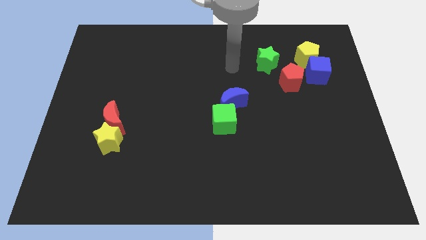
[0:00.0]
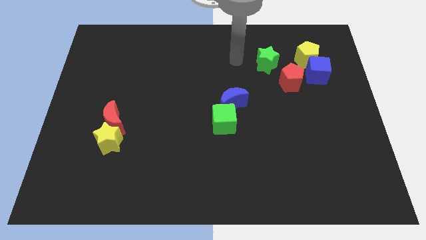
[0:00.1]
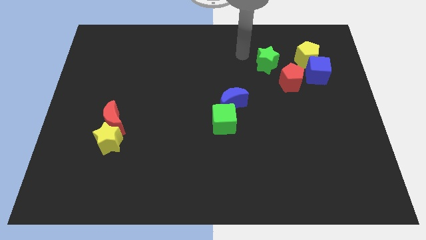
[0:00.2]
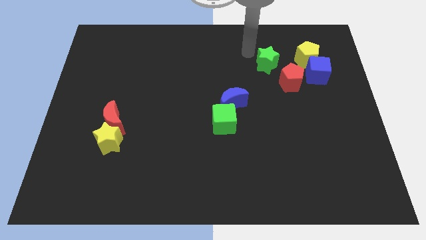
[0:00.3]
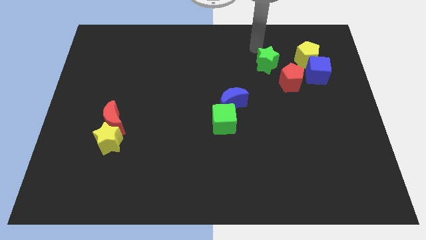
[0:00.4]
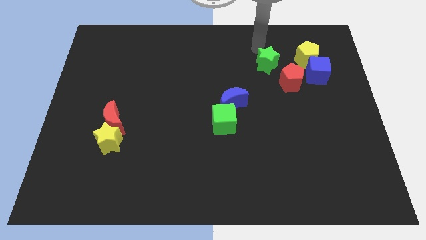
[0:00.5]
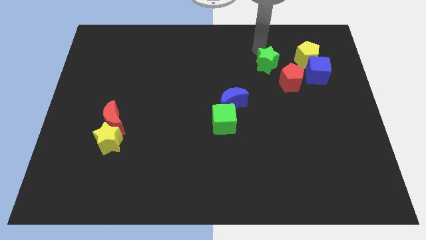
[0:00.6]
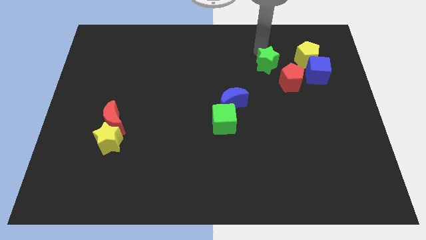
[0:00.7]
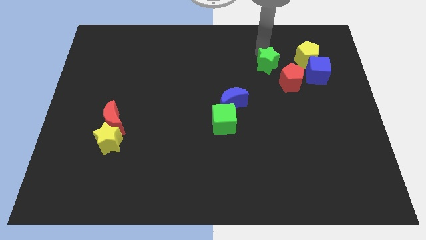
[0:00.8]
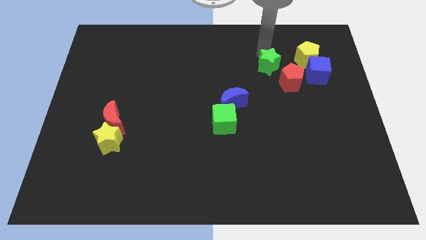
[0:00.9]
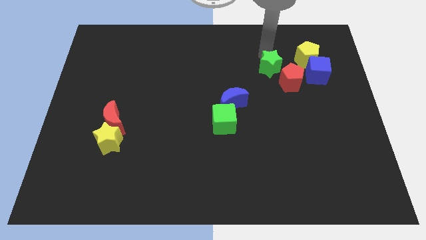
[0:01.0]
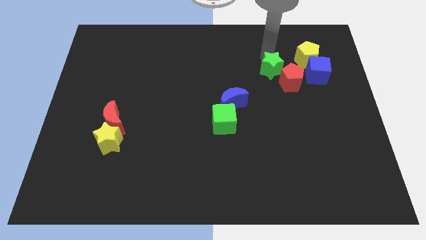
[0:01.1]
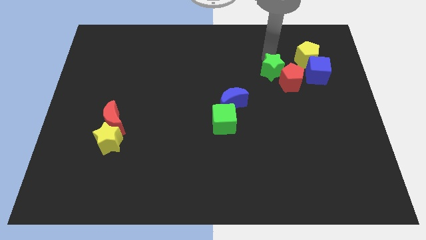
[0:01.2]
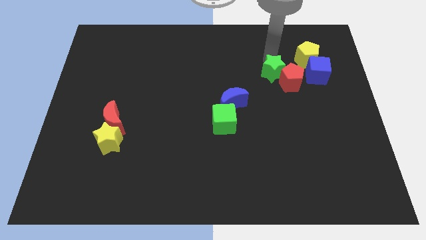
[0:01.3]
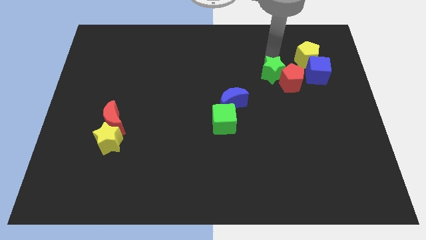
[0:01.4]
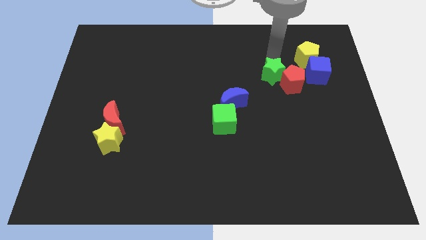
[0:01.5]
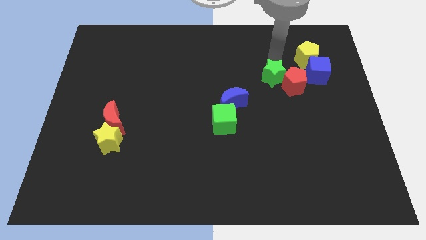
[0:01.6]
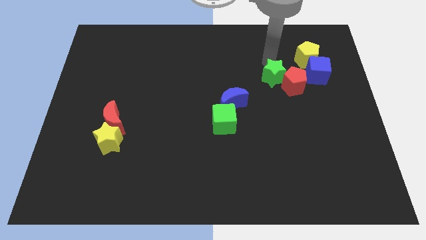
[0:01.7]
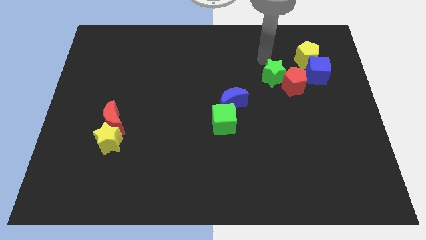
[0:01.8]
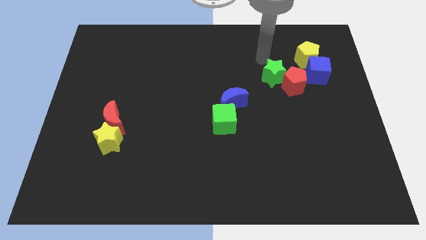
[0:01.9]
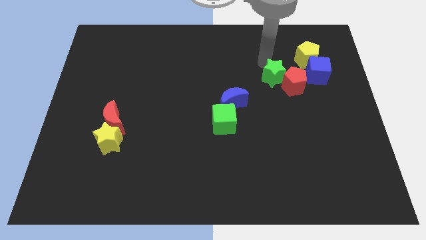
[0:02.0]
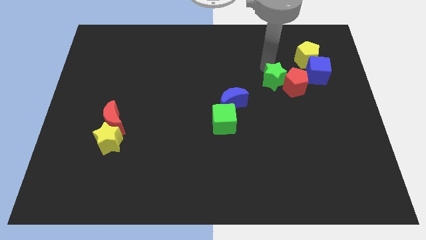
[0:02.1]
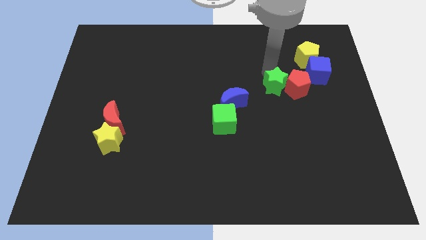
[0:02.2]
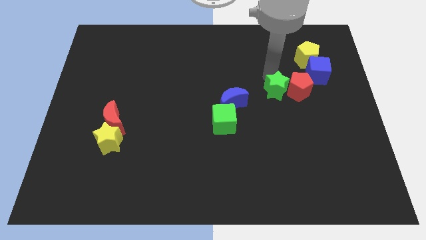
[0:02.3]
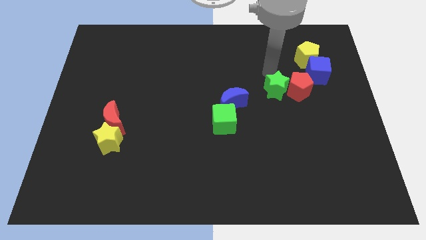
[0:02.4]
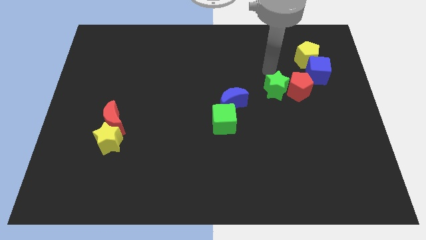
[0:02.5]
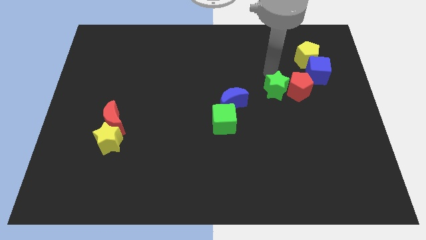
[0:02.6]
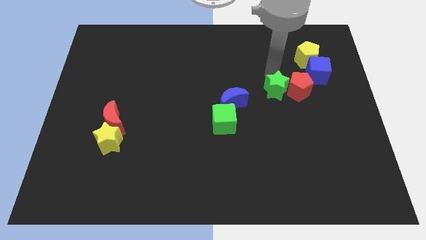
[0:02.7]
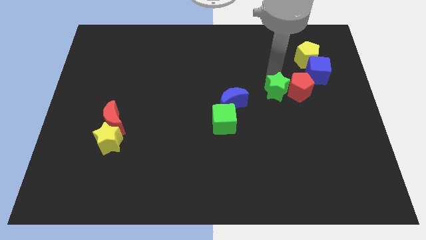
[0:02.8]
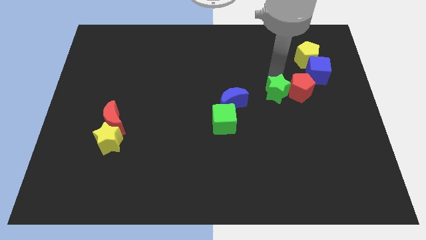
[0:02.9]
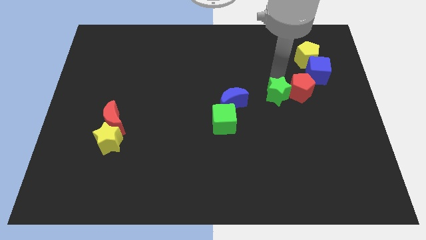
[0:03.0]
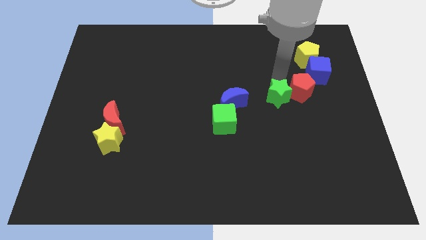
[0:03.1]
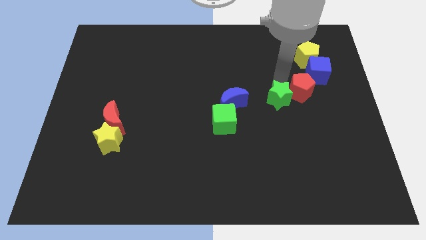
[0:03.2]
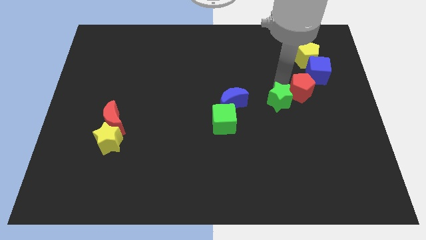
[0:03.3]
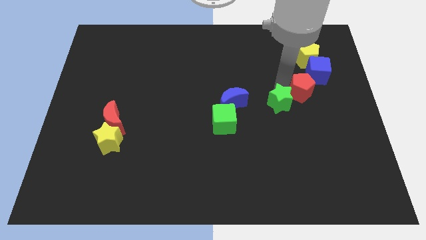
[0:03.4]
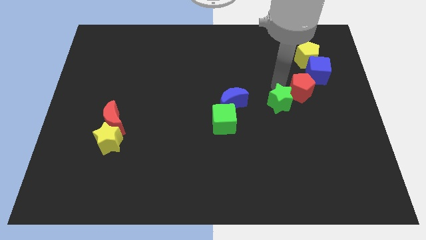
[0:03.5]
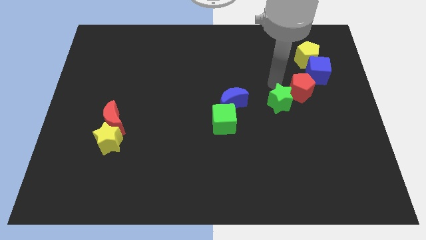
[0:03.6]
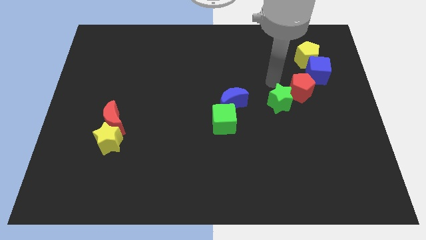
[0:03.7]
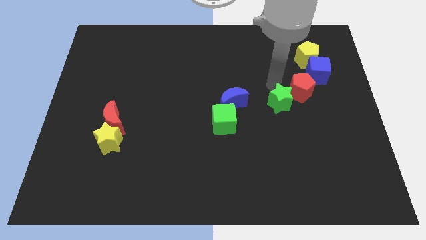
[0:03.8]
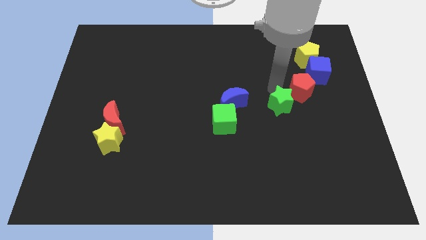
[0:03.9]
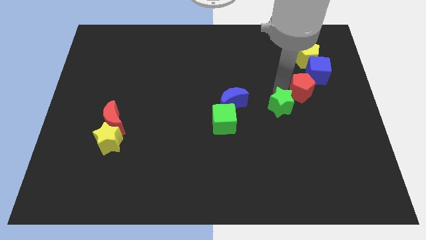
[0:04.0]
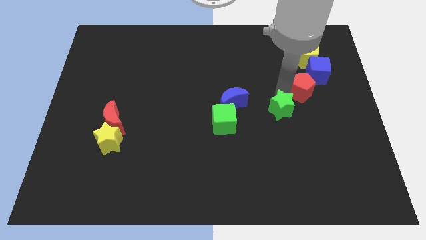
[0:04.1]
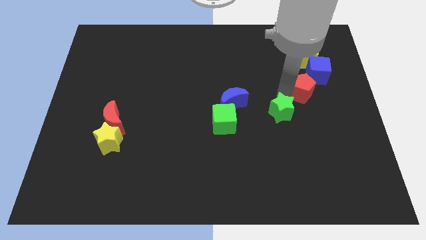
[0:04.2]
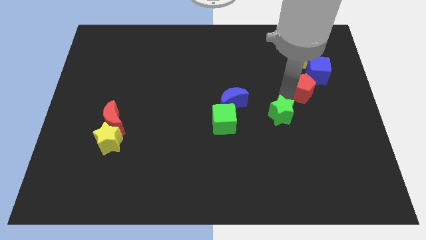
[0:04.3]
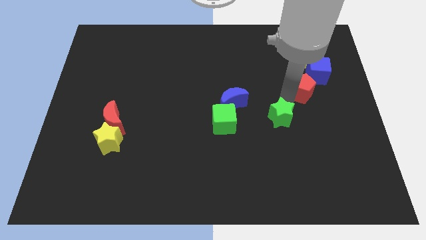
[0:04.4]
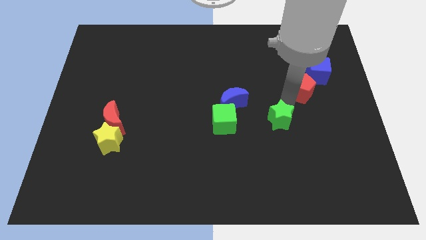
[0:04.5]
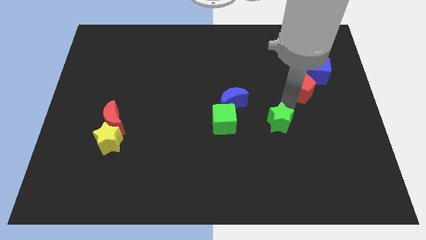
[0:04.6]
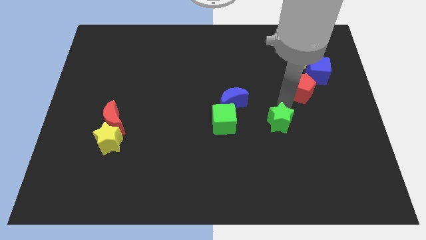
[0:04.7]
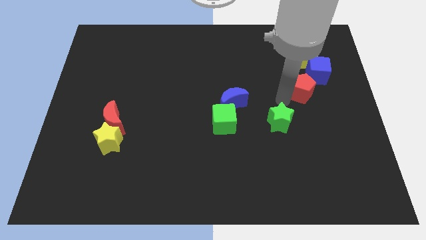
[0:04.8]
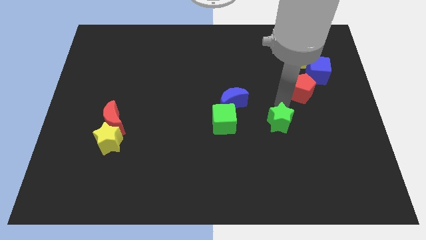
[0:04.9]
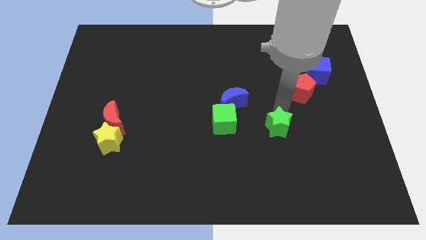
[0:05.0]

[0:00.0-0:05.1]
push the green star downwards

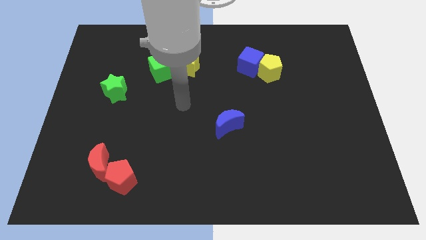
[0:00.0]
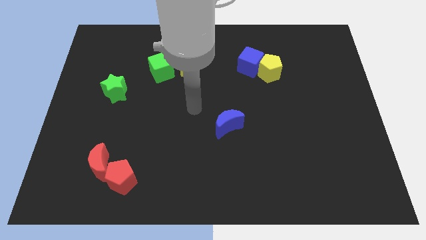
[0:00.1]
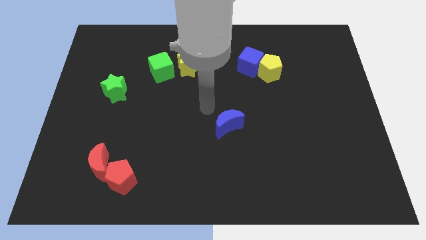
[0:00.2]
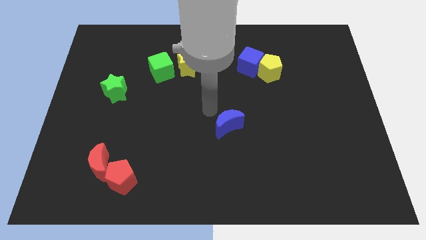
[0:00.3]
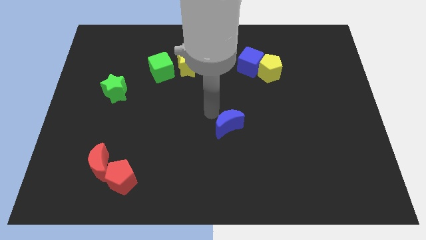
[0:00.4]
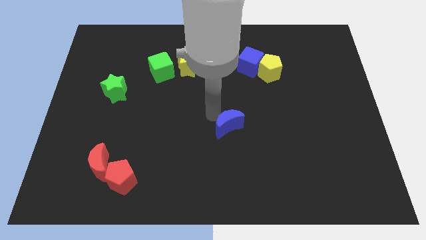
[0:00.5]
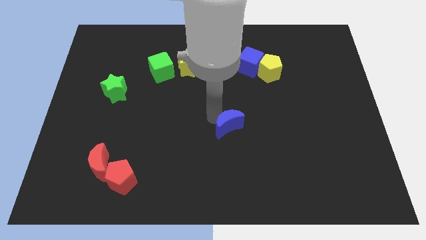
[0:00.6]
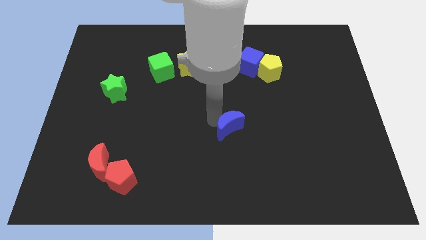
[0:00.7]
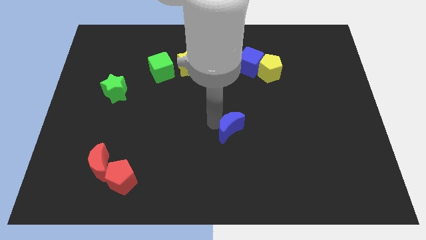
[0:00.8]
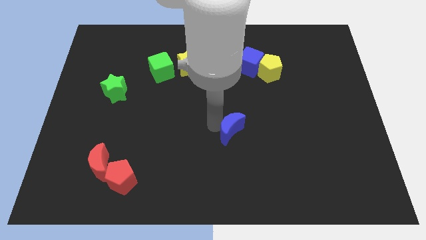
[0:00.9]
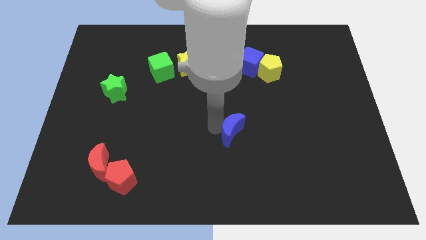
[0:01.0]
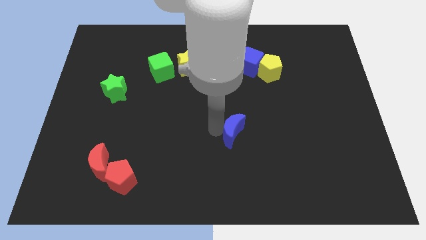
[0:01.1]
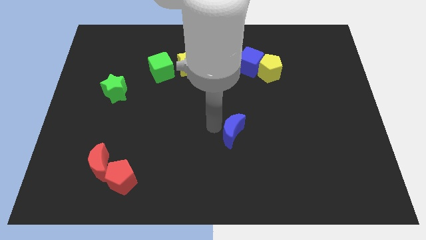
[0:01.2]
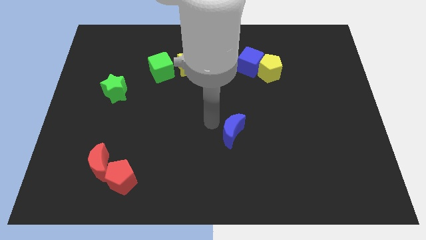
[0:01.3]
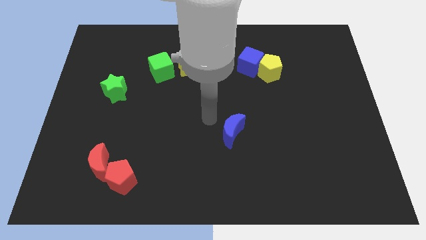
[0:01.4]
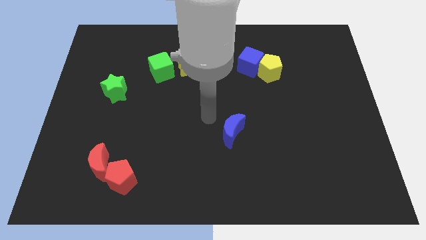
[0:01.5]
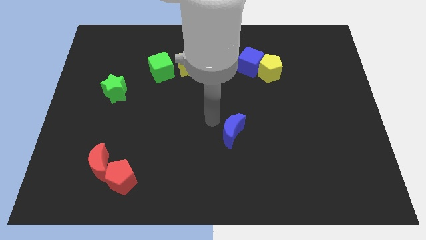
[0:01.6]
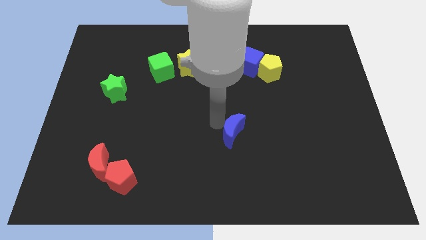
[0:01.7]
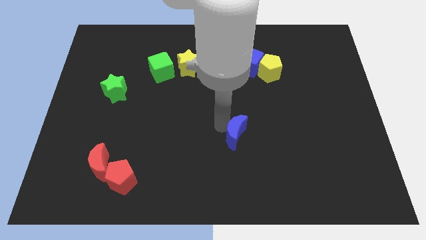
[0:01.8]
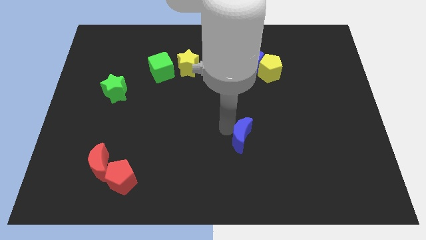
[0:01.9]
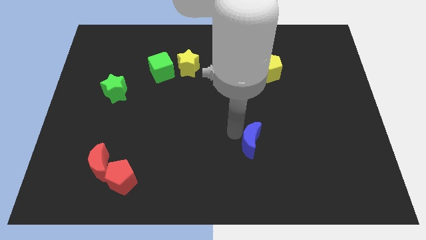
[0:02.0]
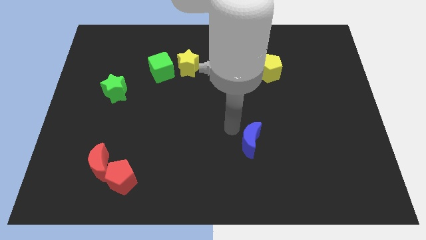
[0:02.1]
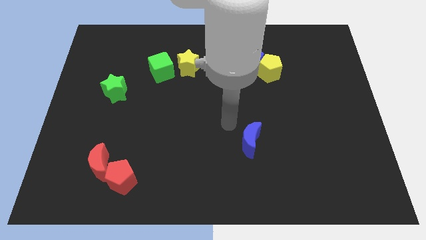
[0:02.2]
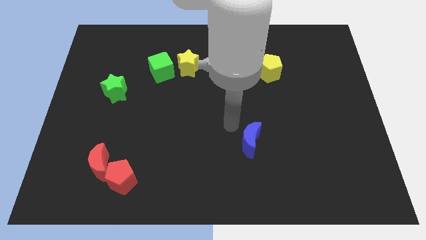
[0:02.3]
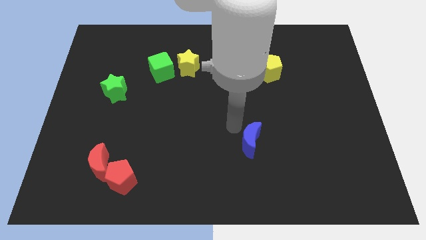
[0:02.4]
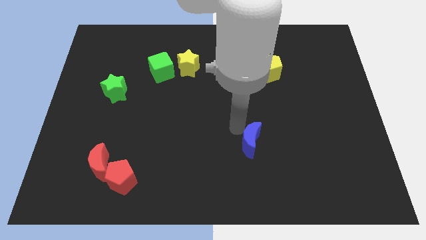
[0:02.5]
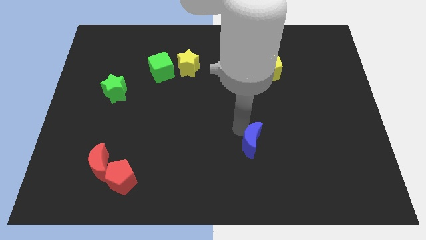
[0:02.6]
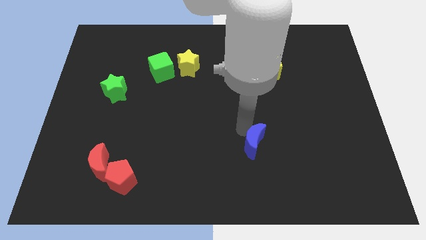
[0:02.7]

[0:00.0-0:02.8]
move the blue moon somewhat downwards and right

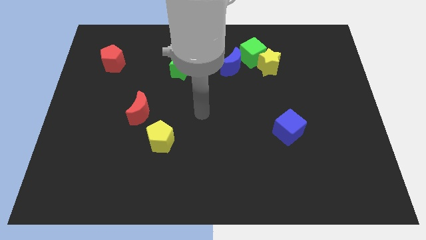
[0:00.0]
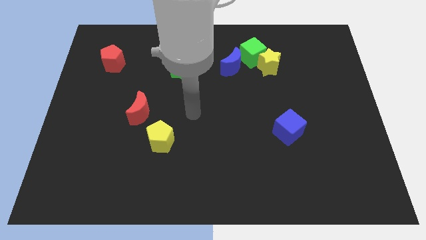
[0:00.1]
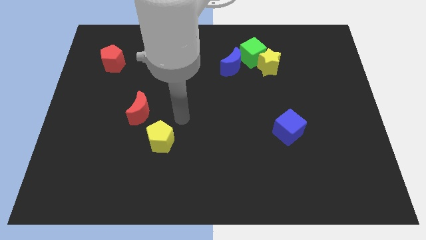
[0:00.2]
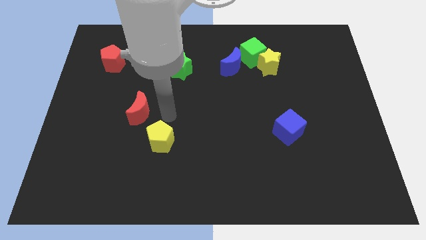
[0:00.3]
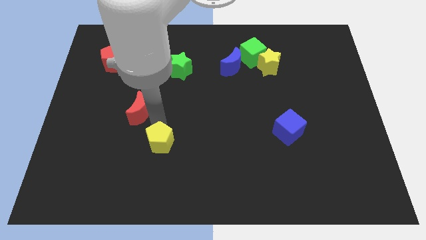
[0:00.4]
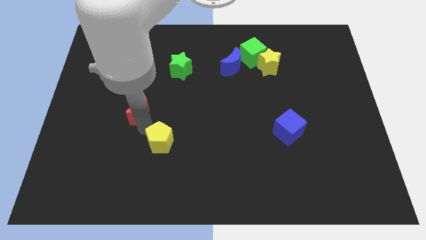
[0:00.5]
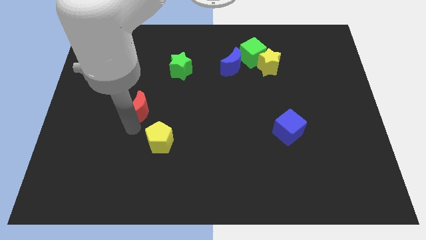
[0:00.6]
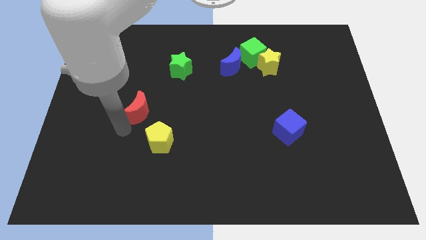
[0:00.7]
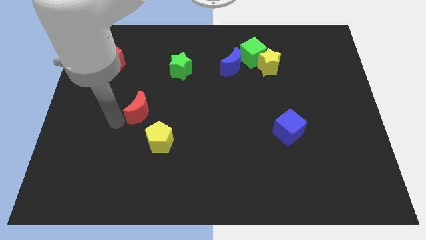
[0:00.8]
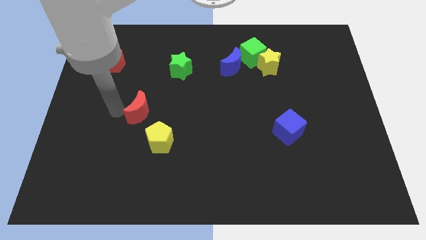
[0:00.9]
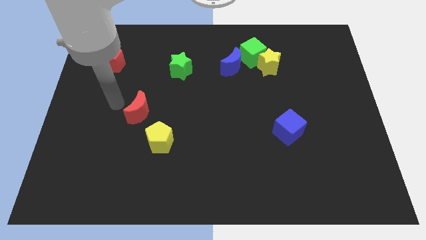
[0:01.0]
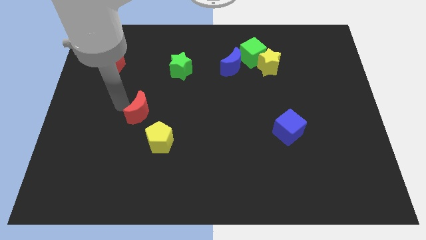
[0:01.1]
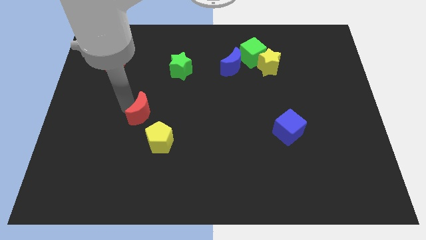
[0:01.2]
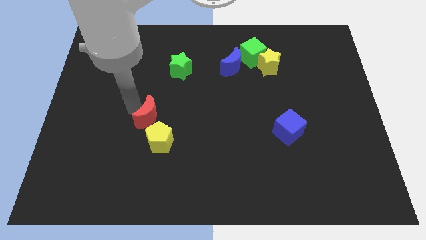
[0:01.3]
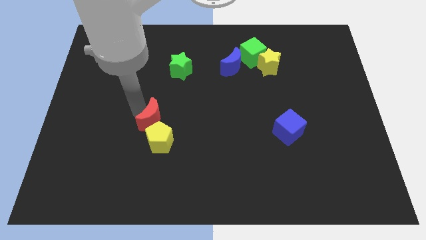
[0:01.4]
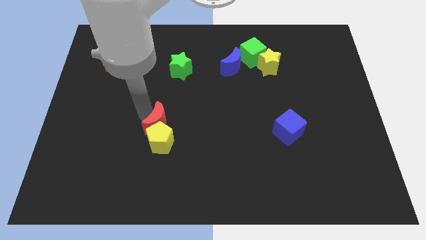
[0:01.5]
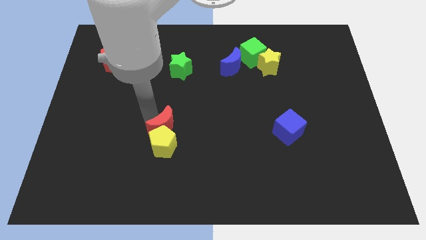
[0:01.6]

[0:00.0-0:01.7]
slightly push the red moon downwards and right
